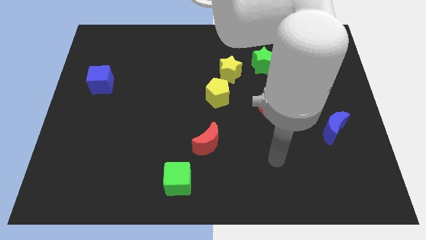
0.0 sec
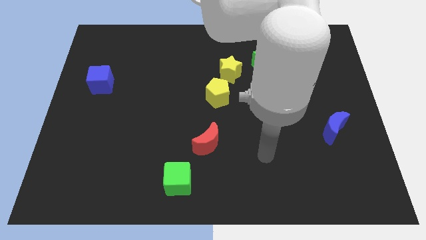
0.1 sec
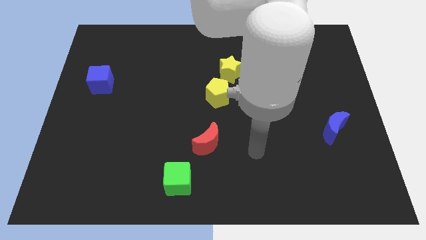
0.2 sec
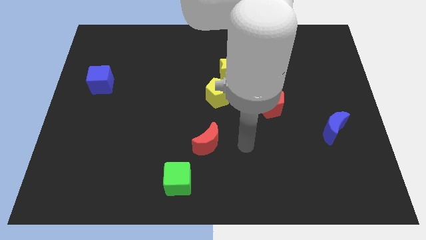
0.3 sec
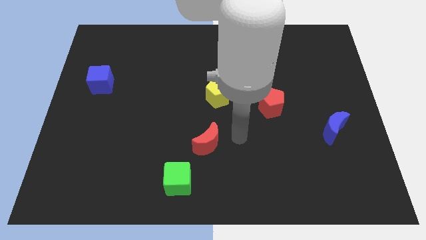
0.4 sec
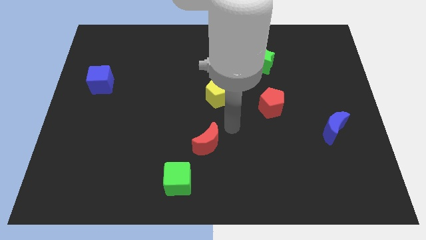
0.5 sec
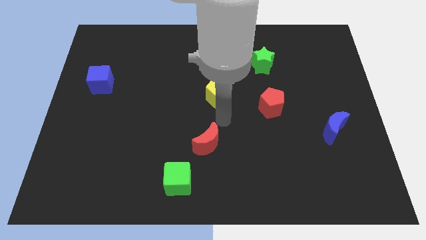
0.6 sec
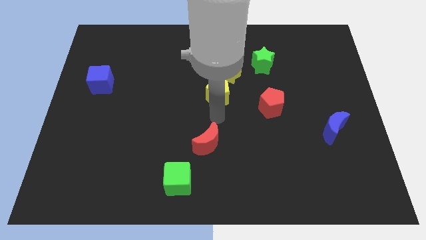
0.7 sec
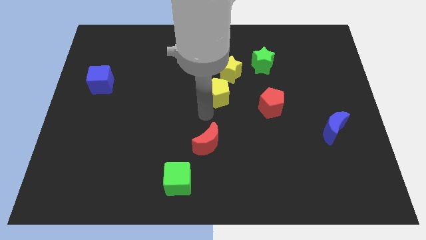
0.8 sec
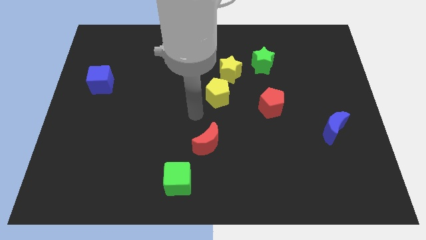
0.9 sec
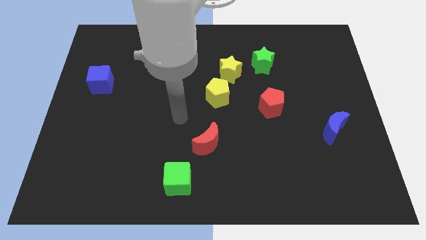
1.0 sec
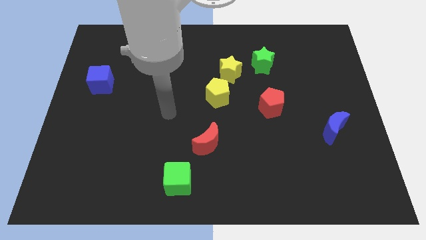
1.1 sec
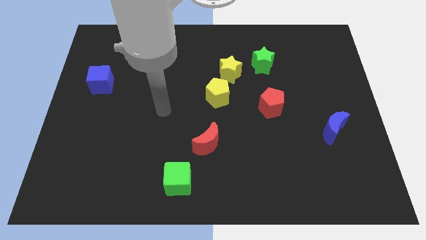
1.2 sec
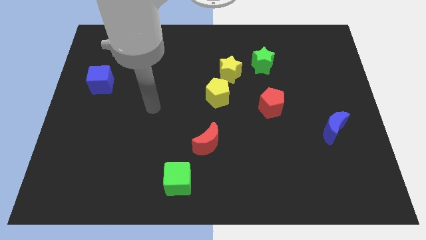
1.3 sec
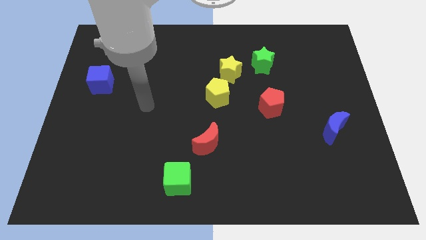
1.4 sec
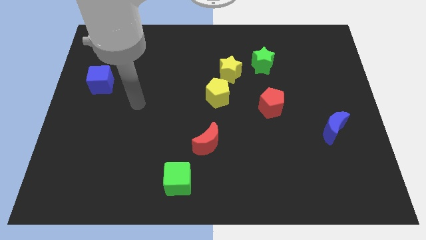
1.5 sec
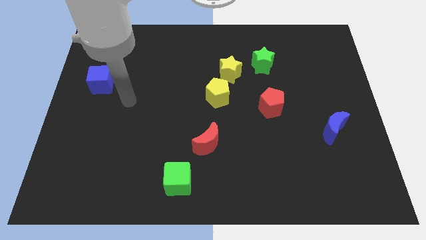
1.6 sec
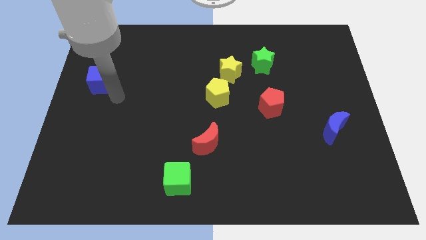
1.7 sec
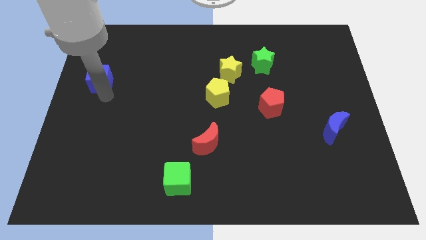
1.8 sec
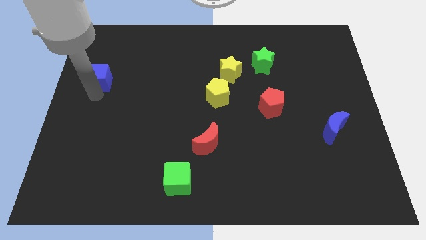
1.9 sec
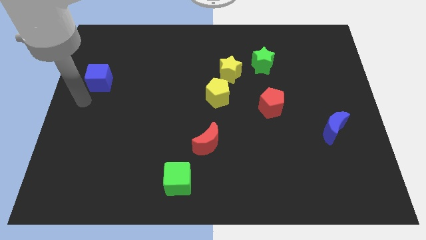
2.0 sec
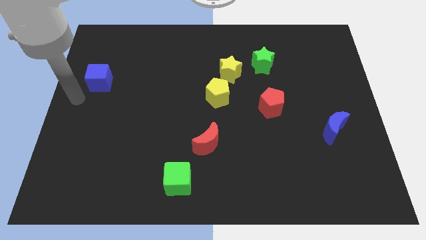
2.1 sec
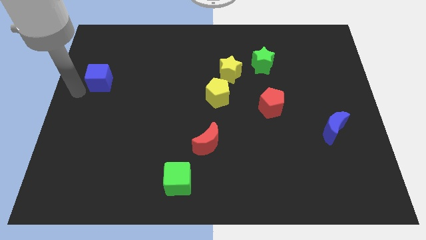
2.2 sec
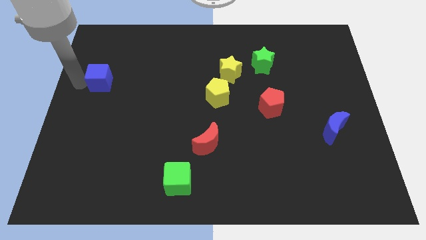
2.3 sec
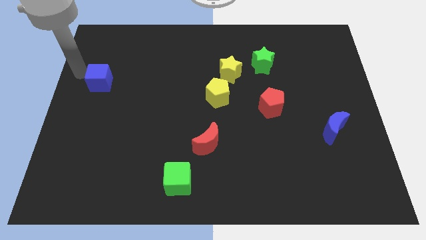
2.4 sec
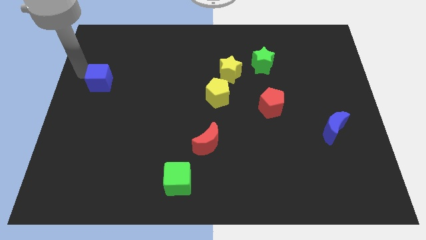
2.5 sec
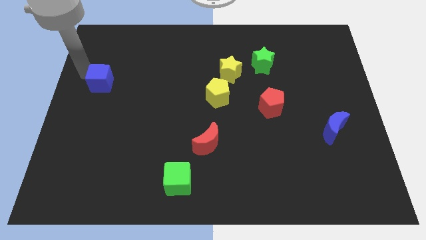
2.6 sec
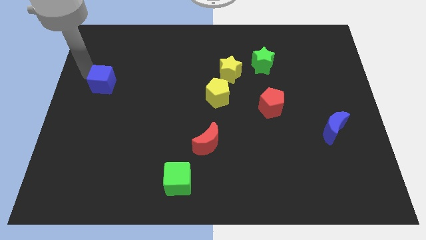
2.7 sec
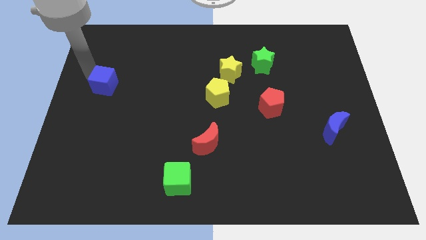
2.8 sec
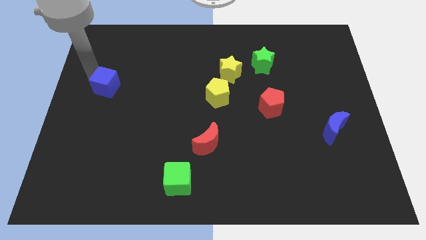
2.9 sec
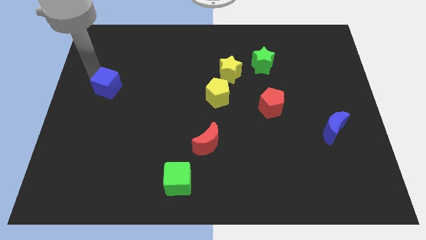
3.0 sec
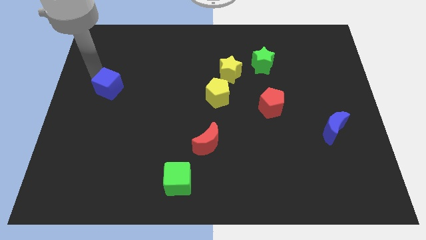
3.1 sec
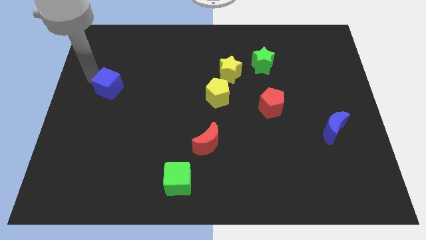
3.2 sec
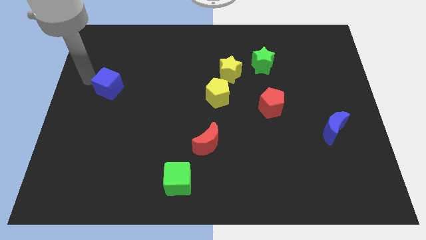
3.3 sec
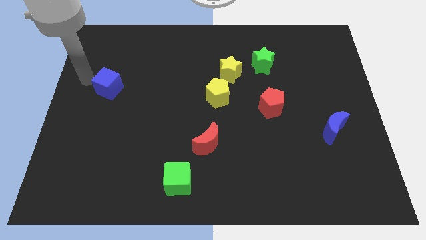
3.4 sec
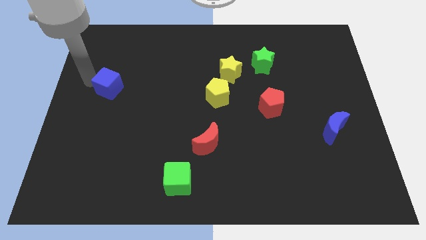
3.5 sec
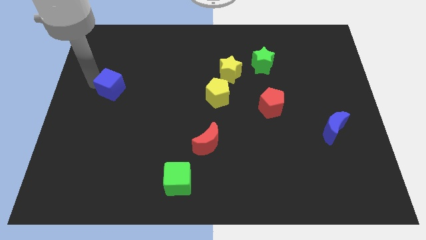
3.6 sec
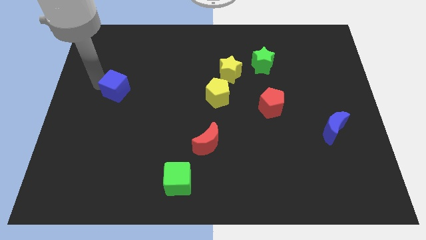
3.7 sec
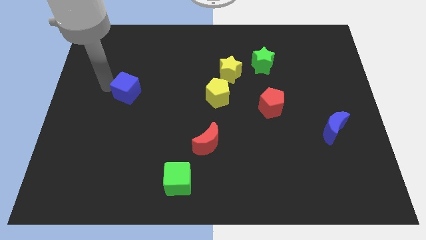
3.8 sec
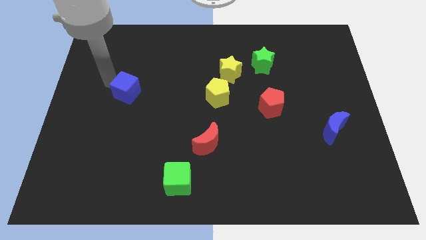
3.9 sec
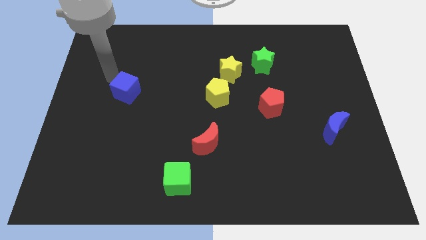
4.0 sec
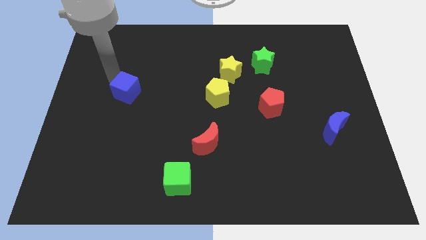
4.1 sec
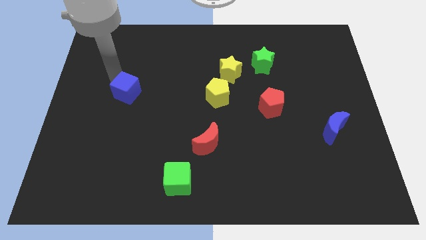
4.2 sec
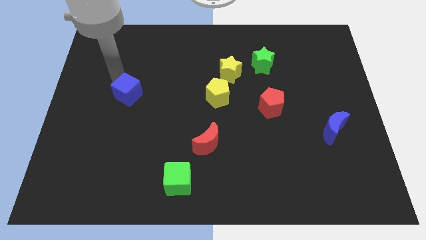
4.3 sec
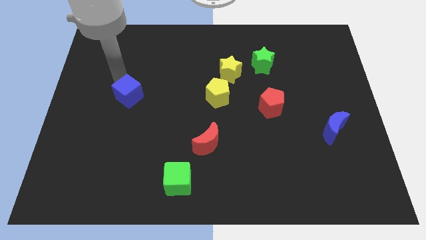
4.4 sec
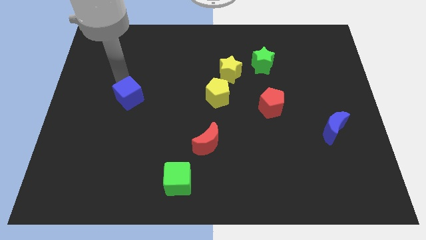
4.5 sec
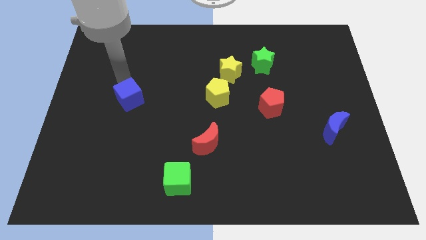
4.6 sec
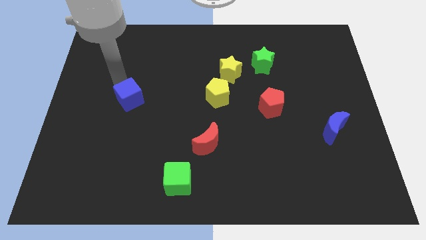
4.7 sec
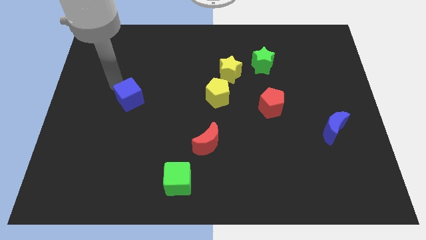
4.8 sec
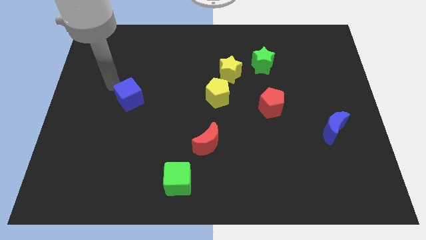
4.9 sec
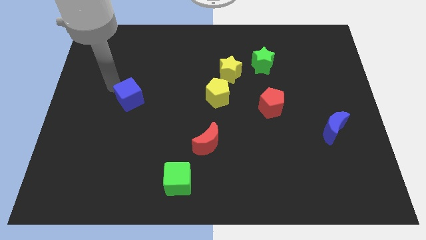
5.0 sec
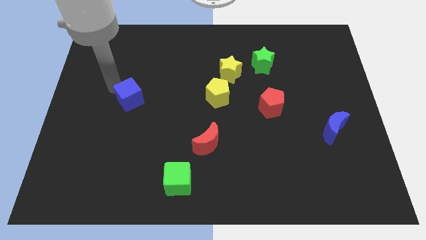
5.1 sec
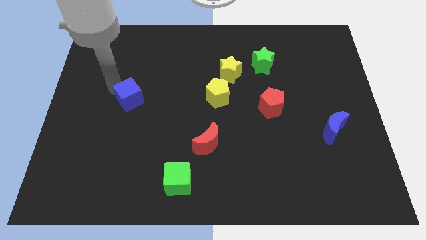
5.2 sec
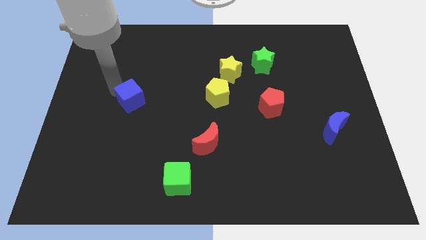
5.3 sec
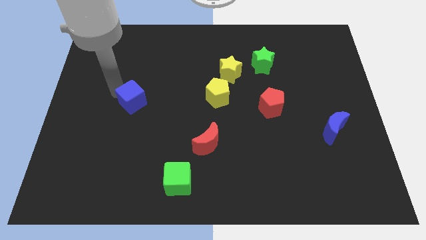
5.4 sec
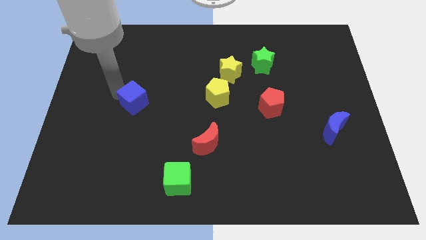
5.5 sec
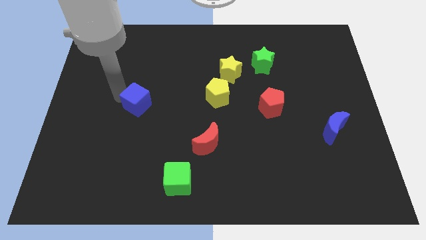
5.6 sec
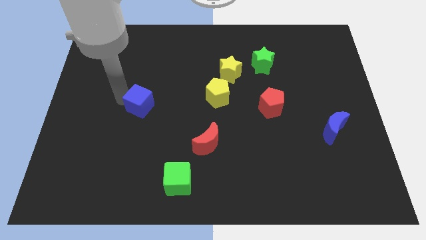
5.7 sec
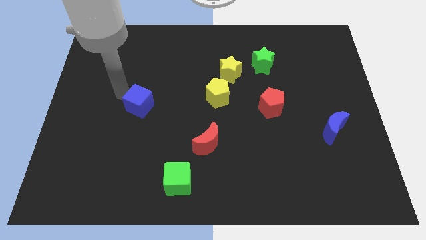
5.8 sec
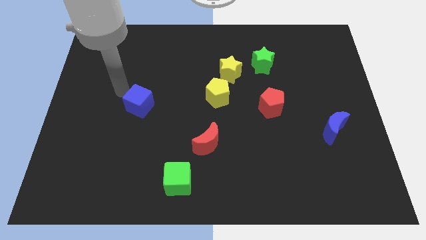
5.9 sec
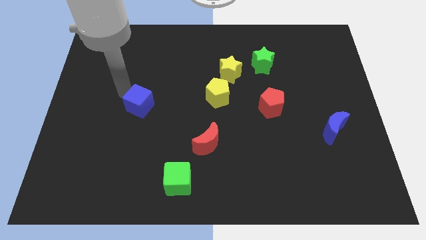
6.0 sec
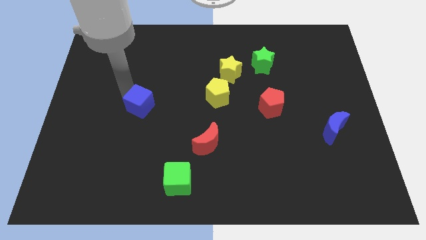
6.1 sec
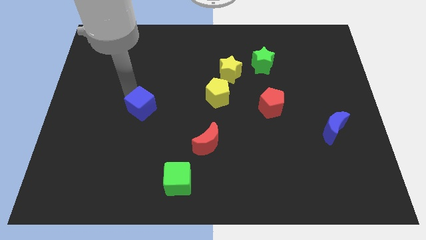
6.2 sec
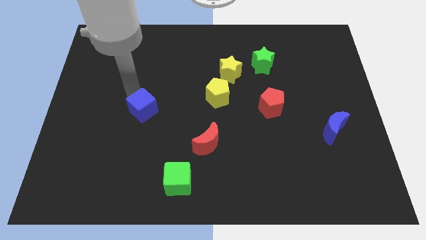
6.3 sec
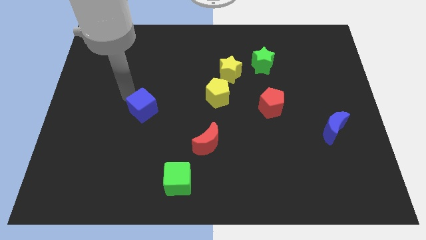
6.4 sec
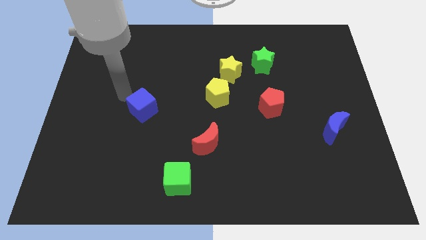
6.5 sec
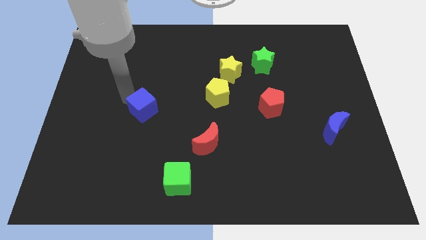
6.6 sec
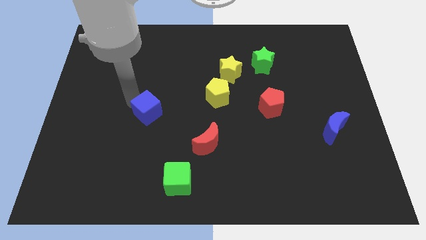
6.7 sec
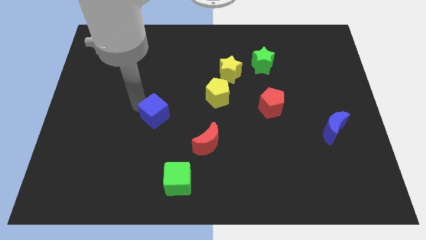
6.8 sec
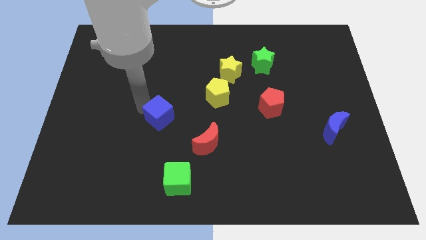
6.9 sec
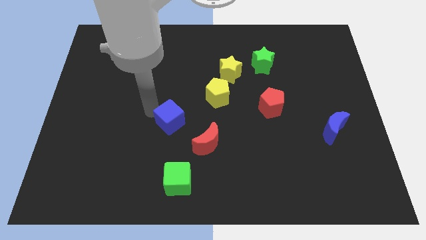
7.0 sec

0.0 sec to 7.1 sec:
push the blue cube above the green cube
